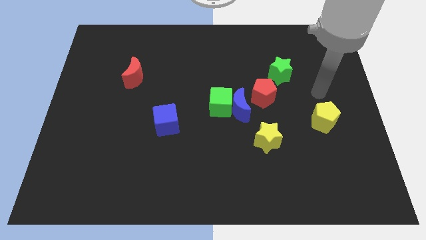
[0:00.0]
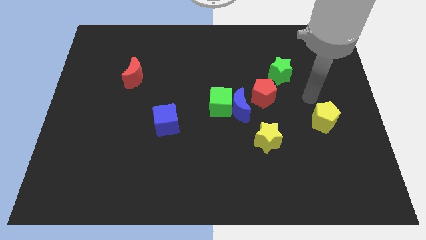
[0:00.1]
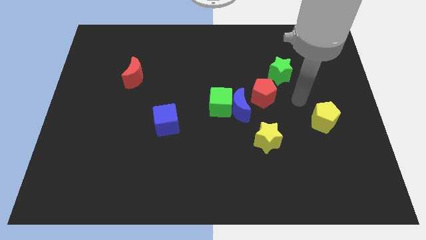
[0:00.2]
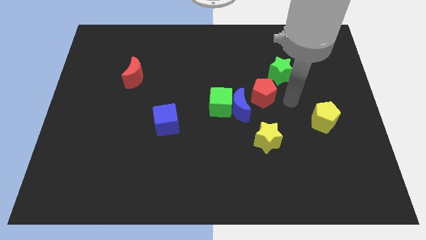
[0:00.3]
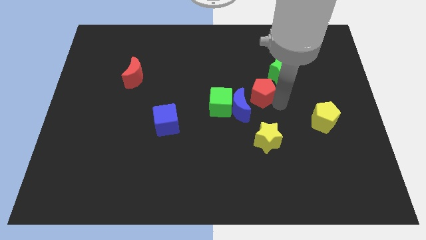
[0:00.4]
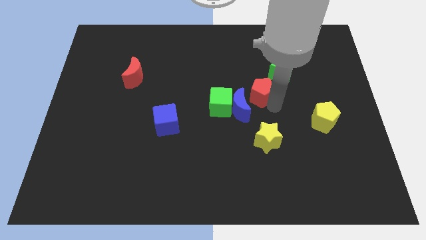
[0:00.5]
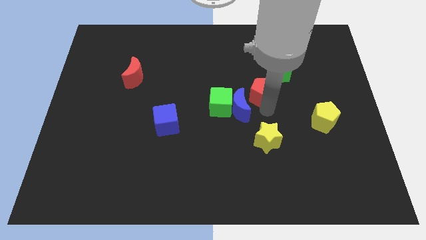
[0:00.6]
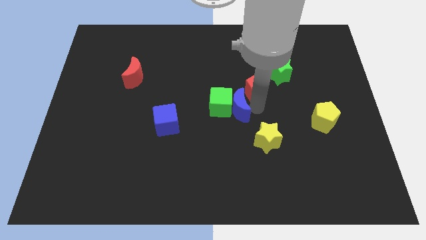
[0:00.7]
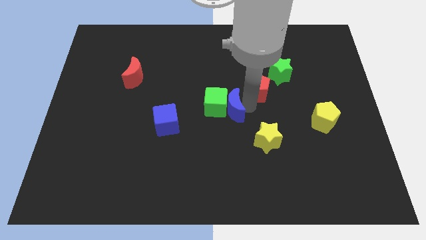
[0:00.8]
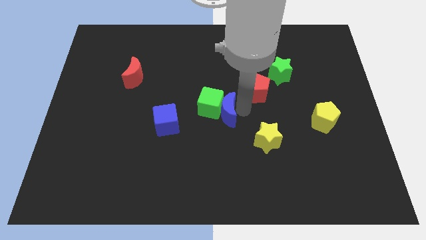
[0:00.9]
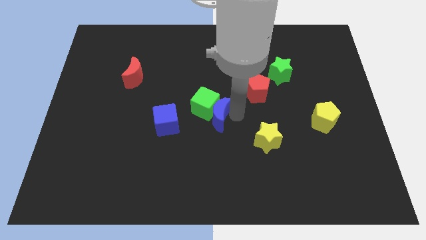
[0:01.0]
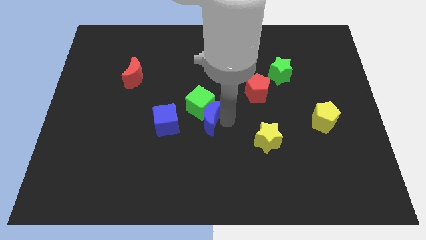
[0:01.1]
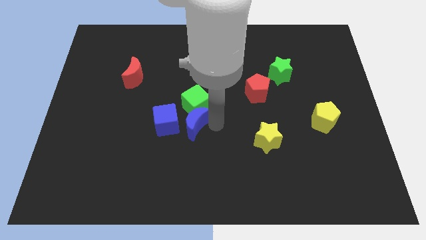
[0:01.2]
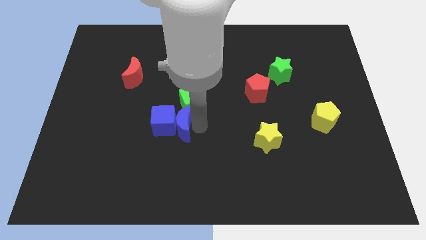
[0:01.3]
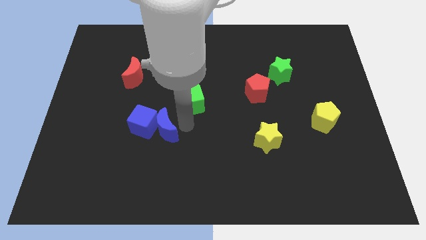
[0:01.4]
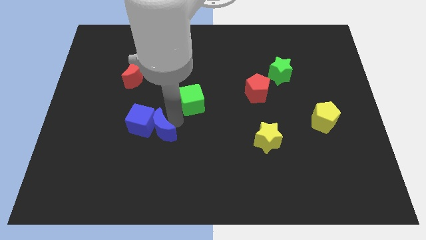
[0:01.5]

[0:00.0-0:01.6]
separate the green cube from the blue moon

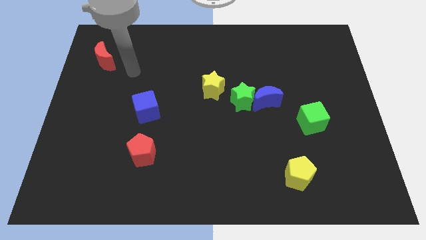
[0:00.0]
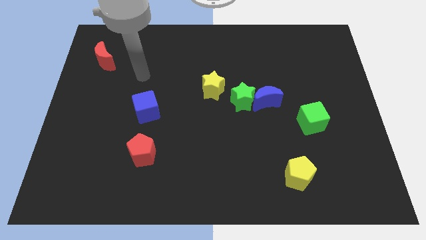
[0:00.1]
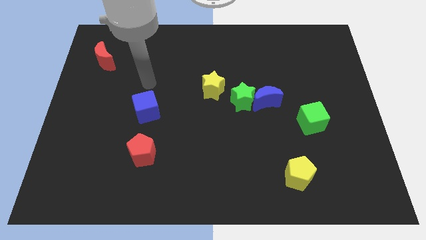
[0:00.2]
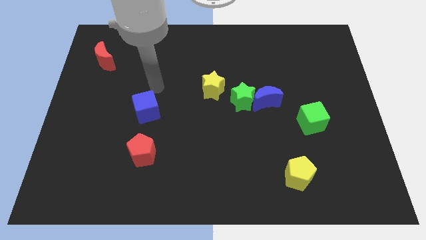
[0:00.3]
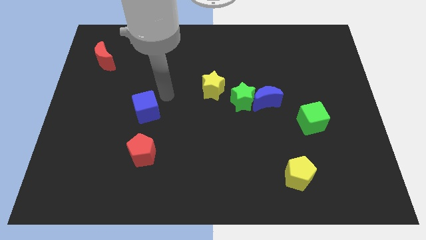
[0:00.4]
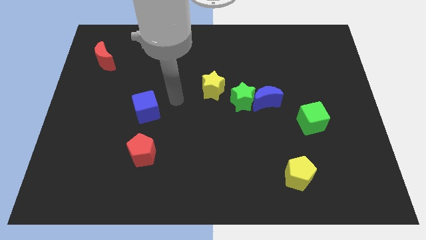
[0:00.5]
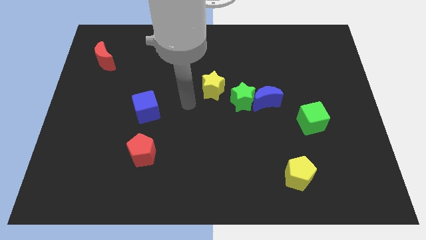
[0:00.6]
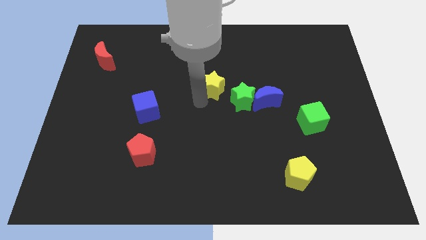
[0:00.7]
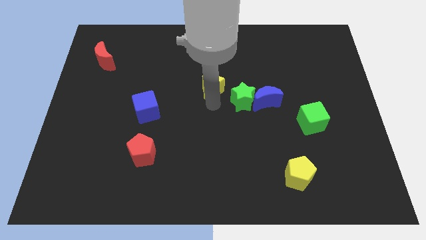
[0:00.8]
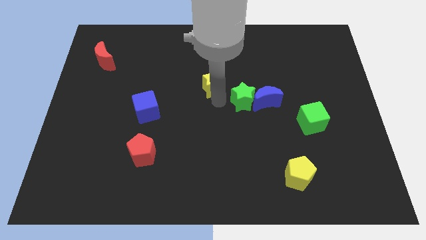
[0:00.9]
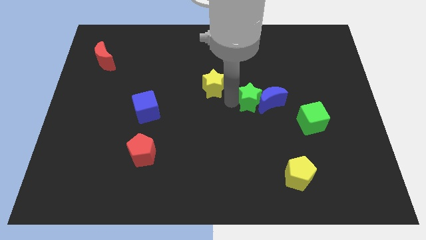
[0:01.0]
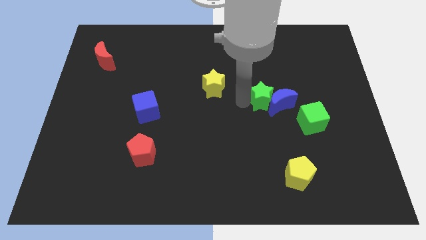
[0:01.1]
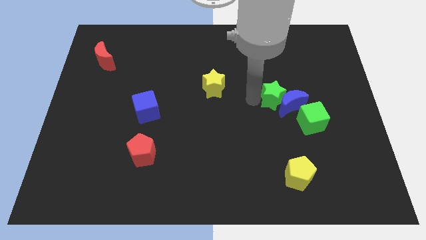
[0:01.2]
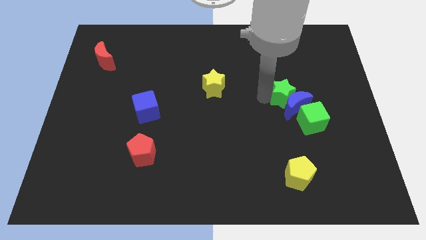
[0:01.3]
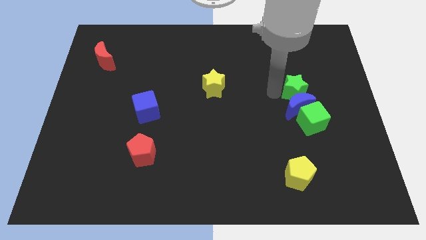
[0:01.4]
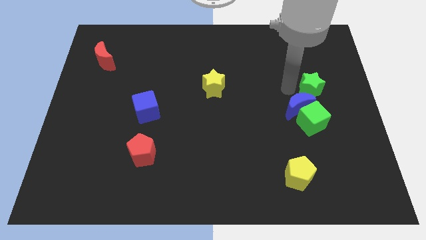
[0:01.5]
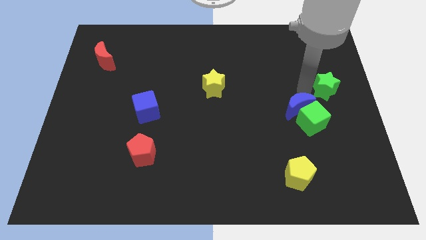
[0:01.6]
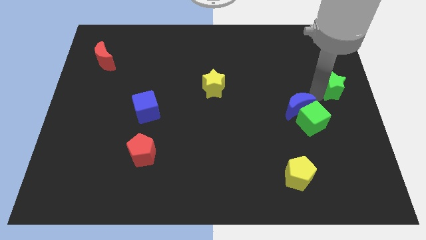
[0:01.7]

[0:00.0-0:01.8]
move the blue moon away from the green star

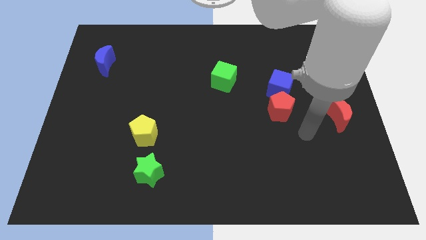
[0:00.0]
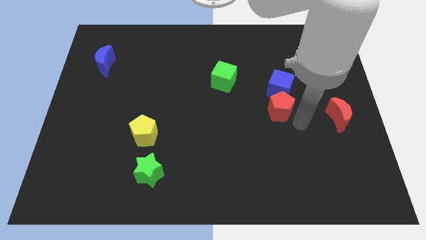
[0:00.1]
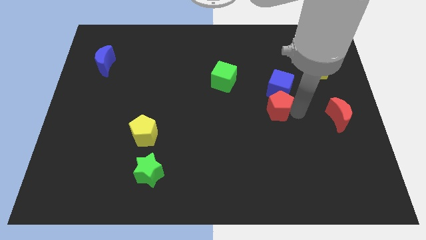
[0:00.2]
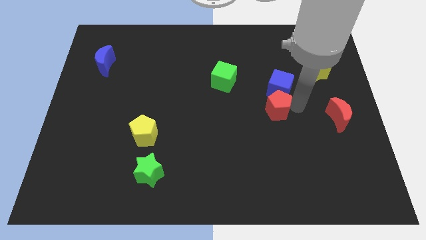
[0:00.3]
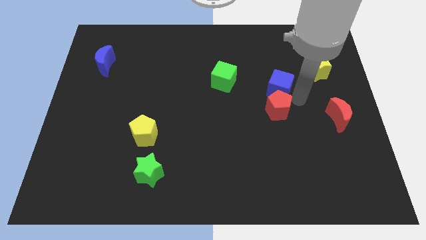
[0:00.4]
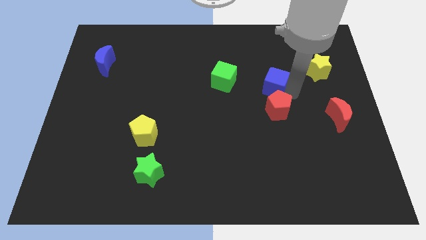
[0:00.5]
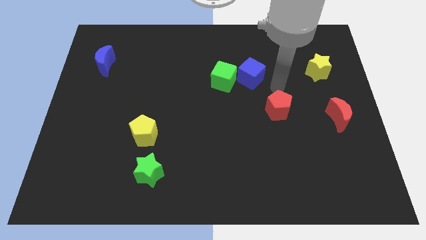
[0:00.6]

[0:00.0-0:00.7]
separate the red pentagon from the blue cube

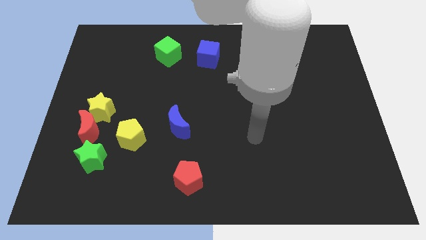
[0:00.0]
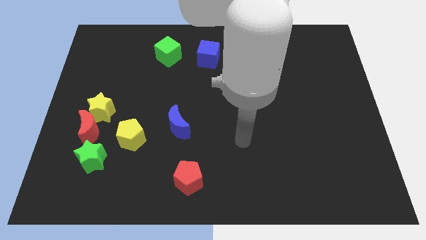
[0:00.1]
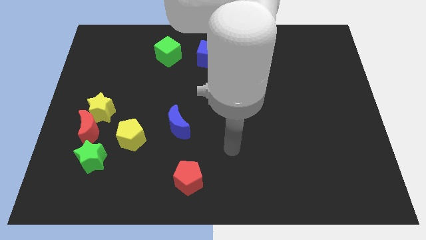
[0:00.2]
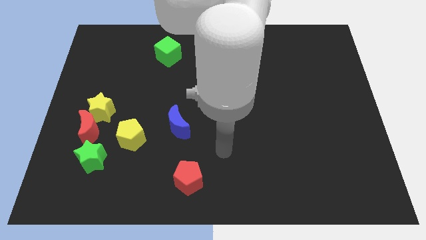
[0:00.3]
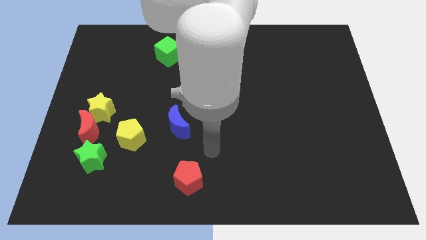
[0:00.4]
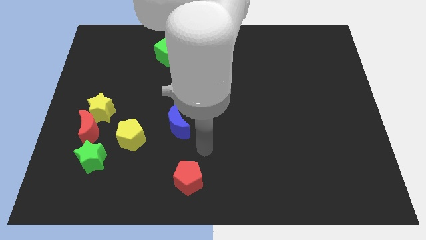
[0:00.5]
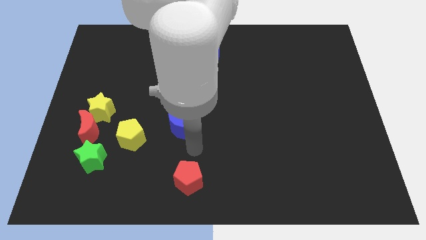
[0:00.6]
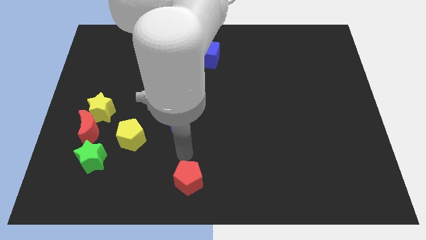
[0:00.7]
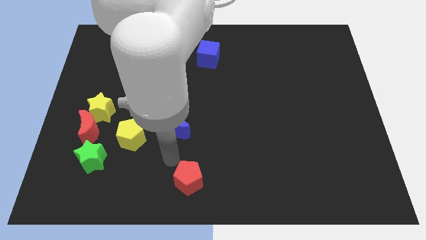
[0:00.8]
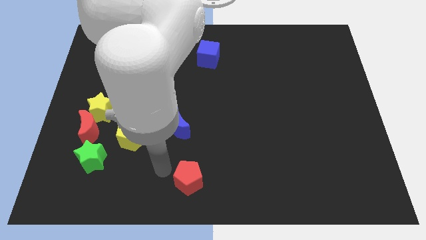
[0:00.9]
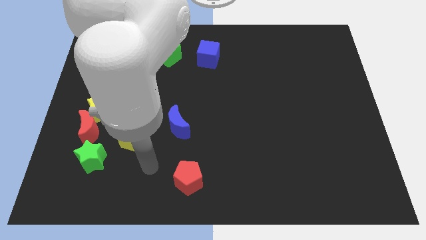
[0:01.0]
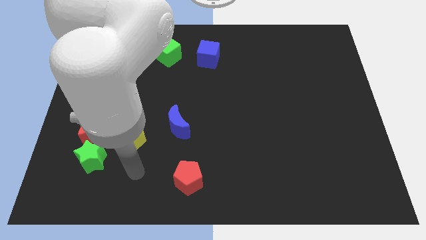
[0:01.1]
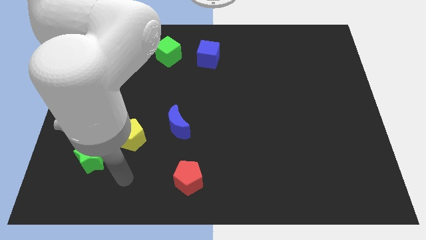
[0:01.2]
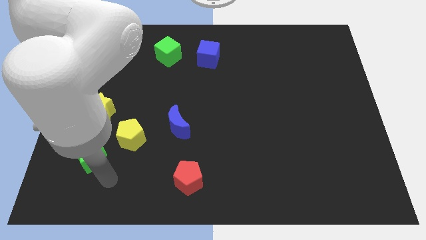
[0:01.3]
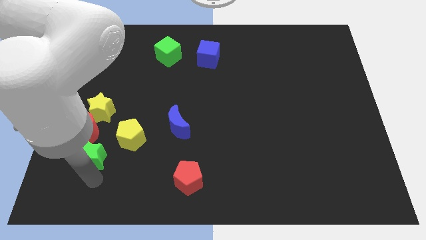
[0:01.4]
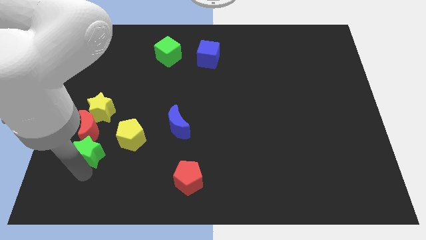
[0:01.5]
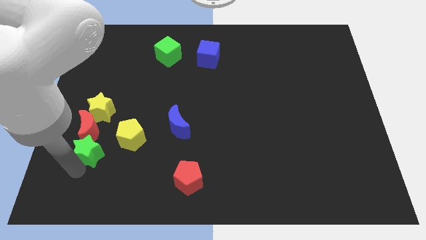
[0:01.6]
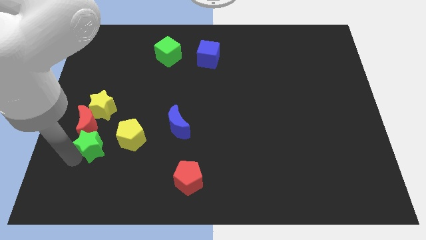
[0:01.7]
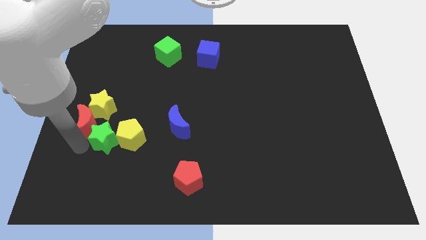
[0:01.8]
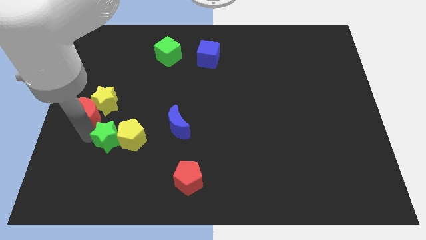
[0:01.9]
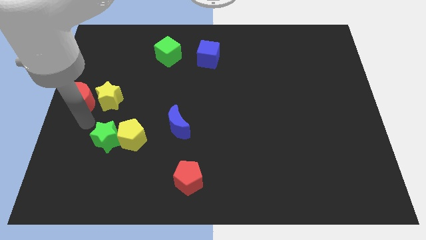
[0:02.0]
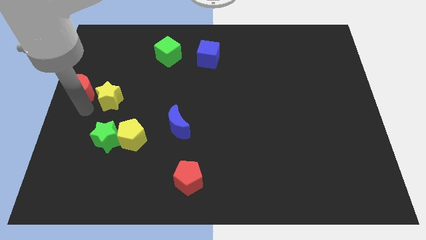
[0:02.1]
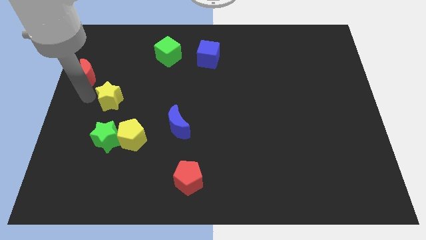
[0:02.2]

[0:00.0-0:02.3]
move the yellow star away from the red moon

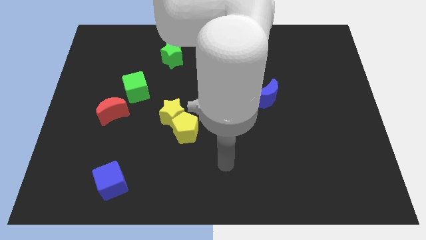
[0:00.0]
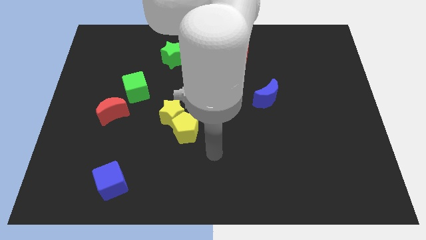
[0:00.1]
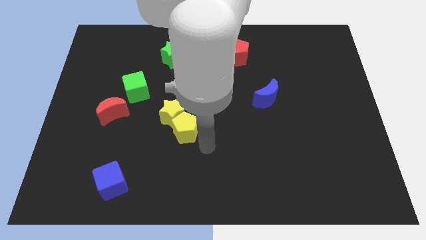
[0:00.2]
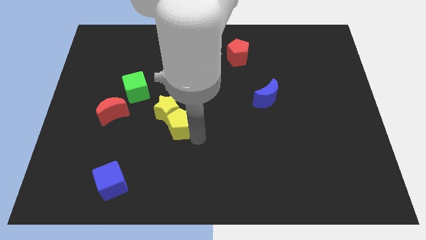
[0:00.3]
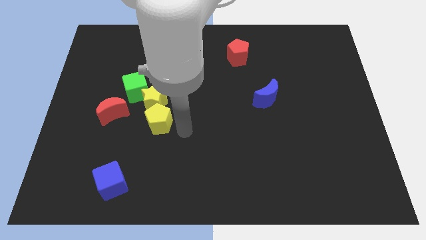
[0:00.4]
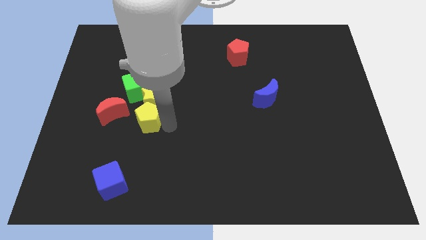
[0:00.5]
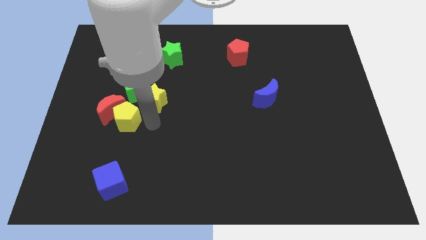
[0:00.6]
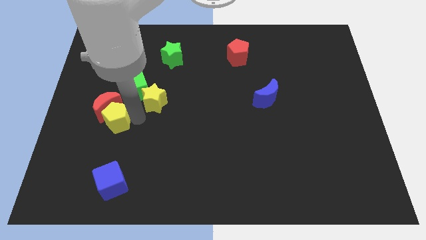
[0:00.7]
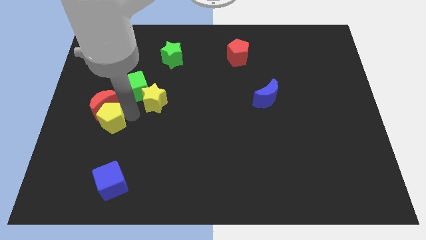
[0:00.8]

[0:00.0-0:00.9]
pull the yellow star apart from the yellow pentagon

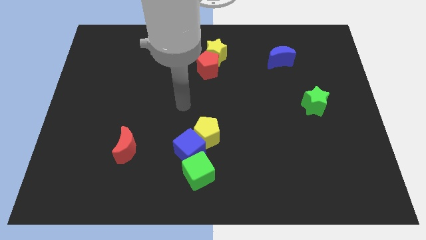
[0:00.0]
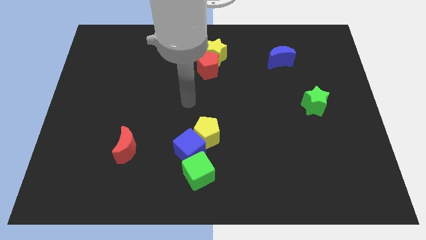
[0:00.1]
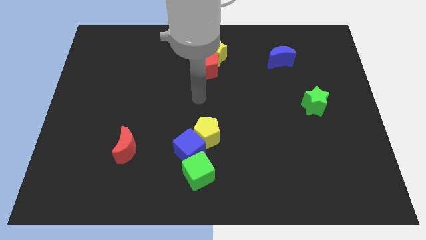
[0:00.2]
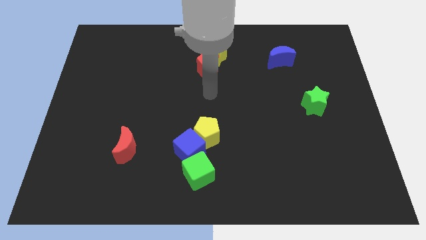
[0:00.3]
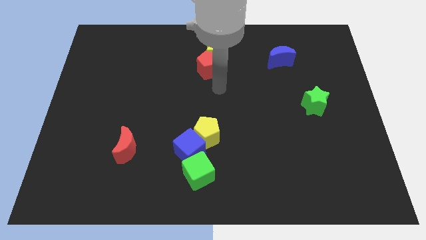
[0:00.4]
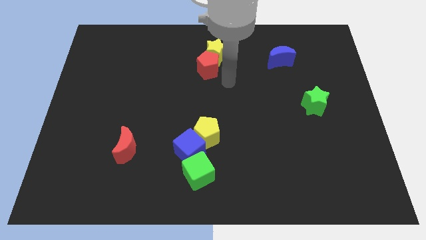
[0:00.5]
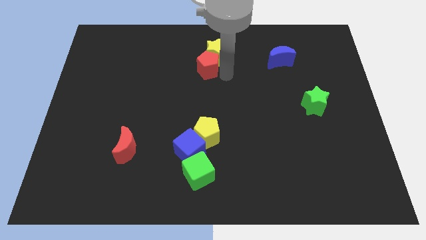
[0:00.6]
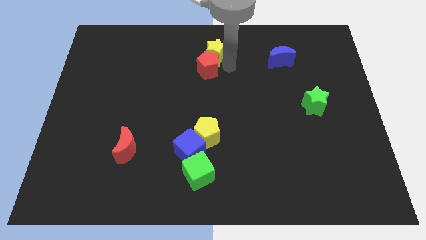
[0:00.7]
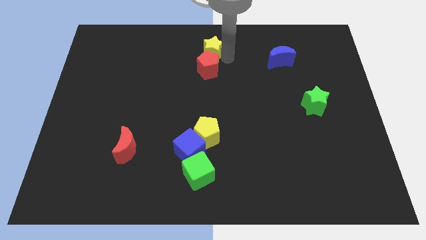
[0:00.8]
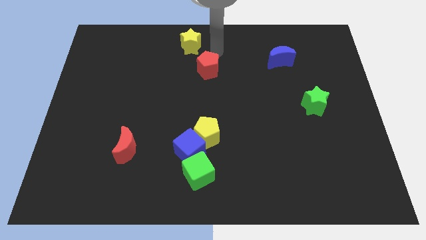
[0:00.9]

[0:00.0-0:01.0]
separate the red pentagon from the yellow star

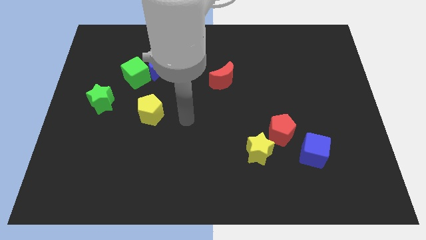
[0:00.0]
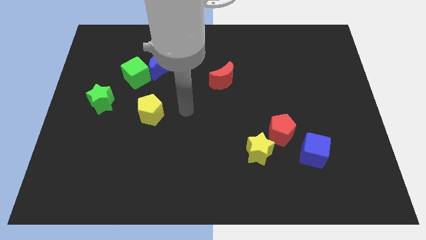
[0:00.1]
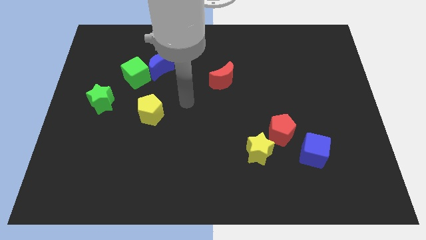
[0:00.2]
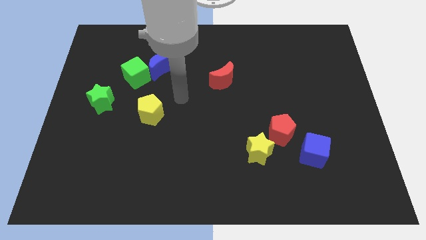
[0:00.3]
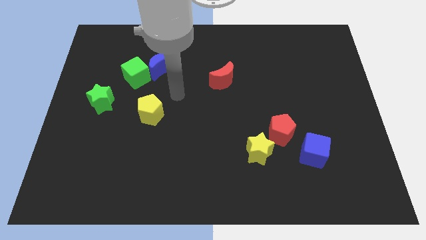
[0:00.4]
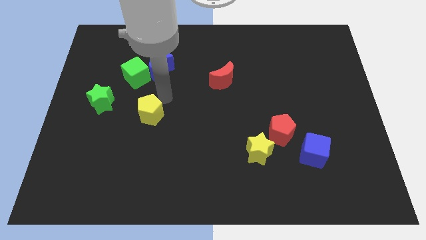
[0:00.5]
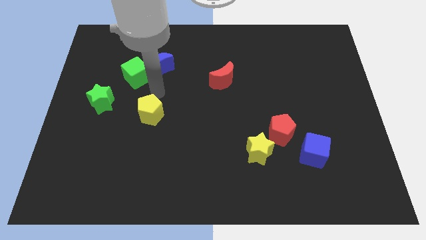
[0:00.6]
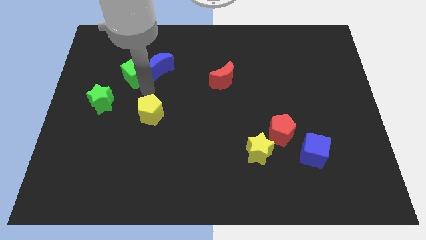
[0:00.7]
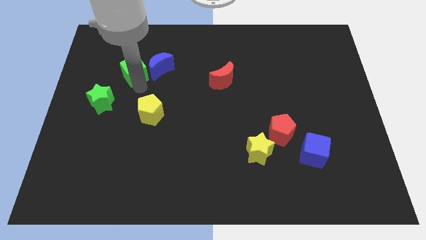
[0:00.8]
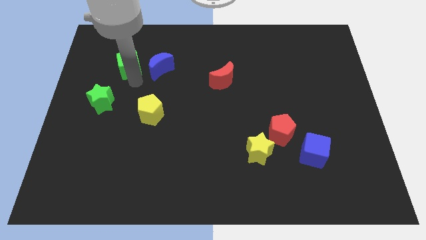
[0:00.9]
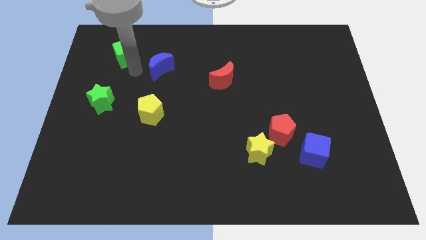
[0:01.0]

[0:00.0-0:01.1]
pull the blue moon apart from the green cube
